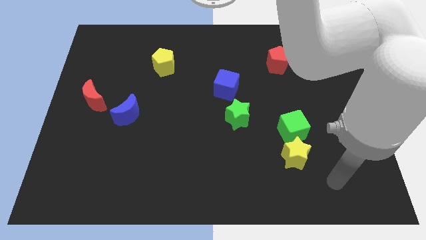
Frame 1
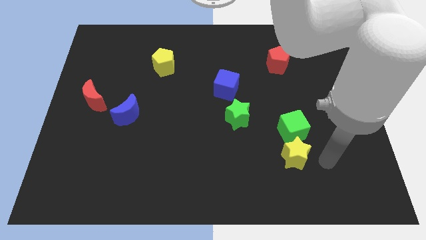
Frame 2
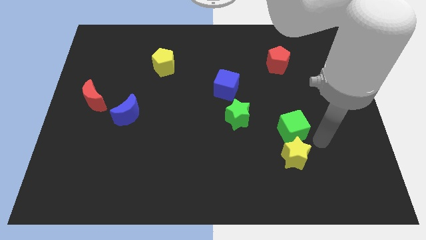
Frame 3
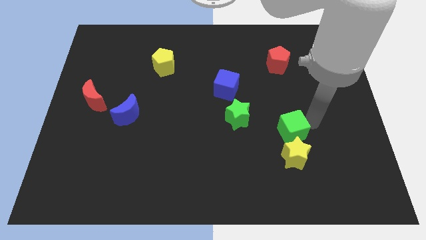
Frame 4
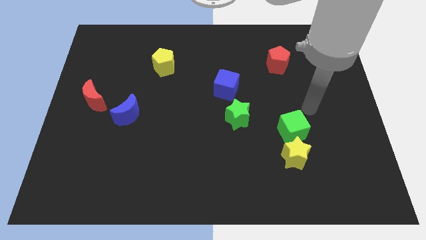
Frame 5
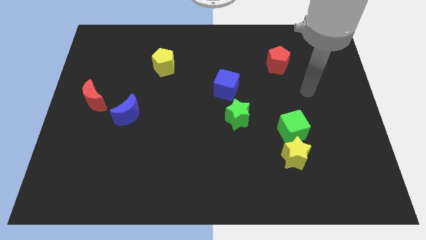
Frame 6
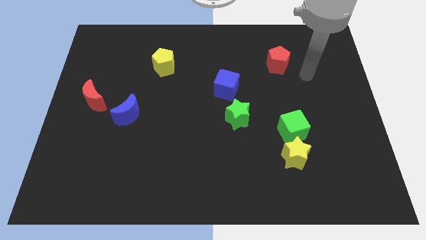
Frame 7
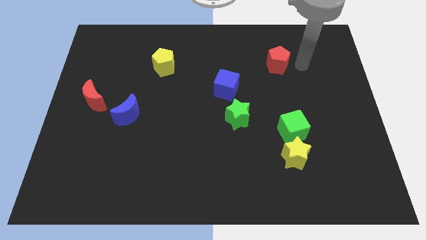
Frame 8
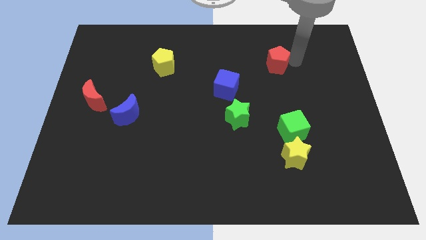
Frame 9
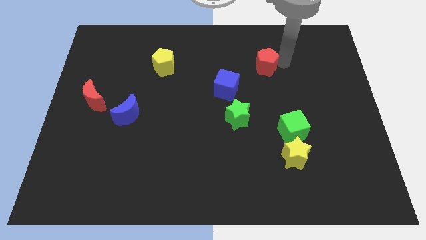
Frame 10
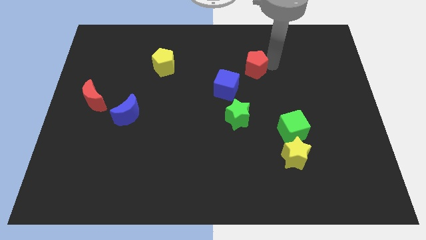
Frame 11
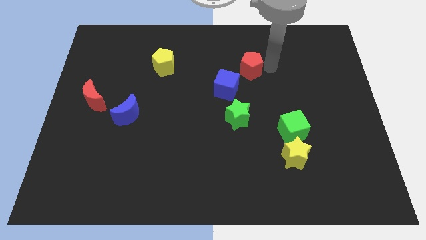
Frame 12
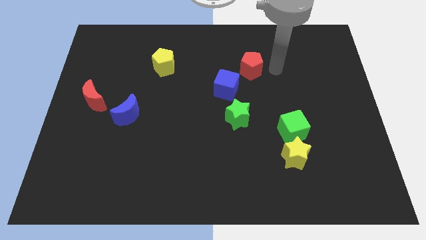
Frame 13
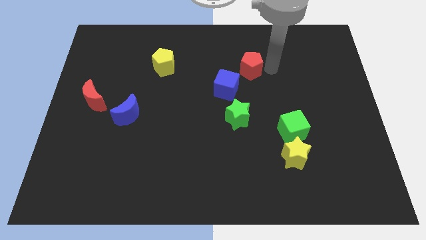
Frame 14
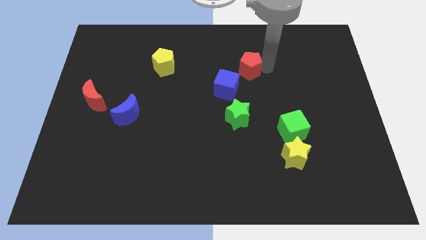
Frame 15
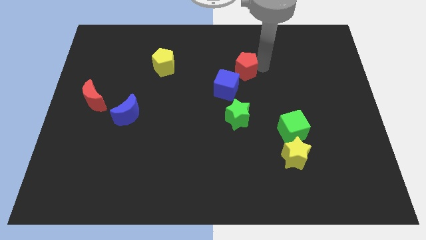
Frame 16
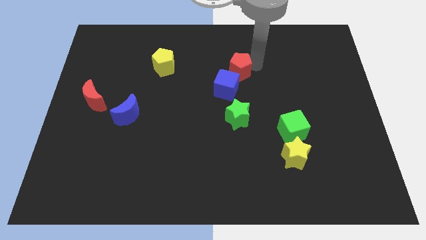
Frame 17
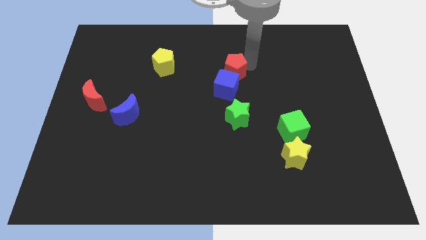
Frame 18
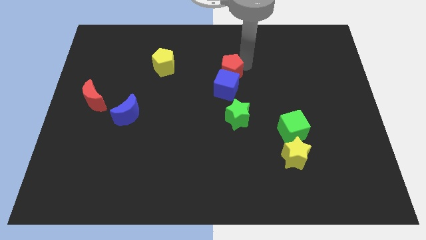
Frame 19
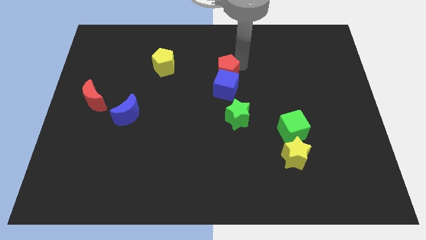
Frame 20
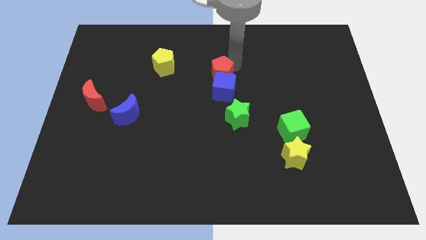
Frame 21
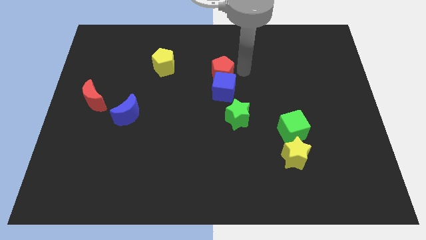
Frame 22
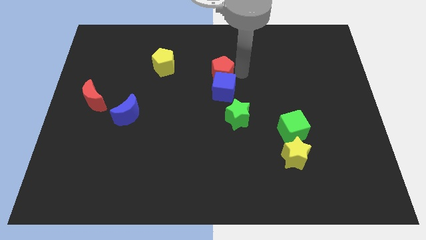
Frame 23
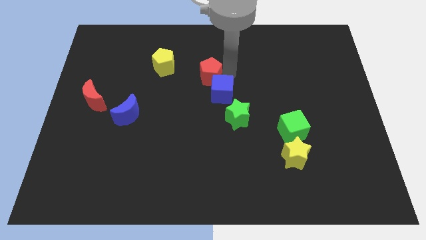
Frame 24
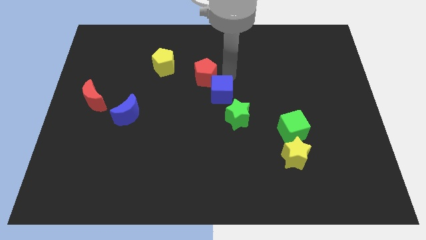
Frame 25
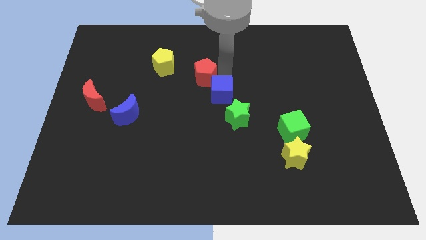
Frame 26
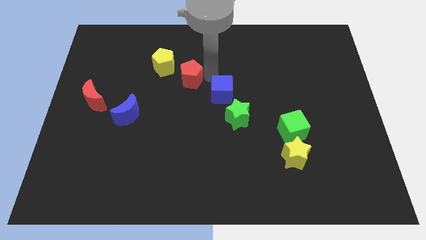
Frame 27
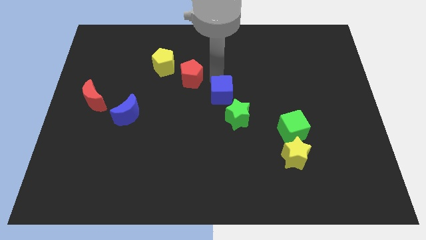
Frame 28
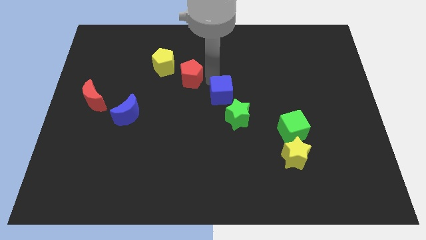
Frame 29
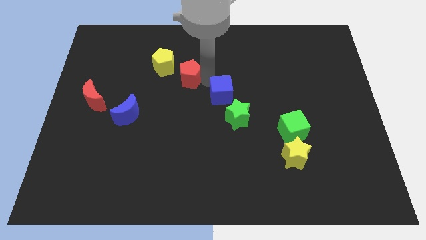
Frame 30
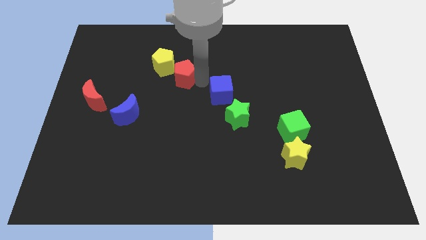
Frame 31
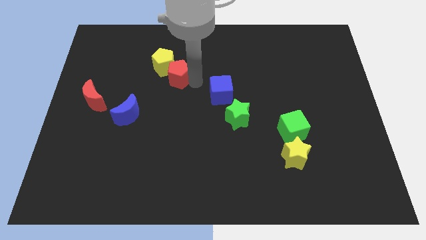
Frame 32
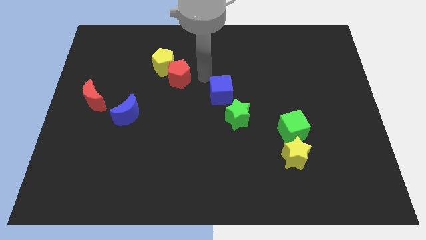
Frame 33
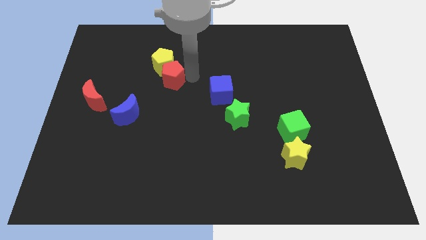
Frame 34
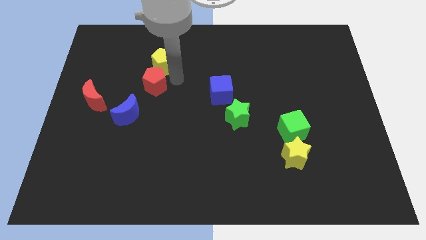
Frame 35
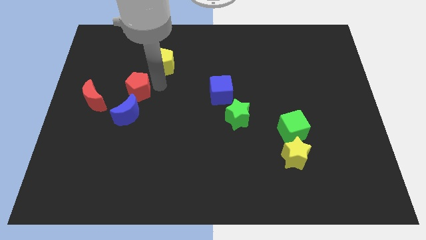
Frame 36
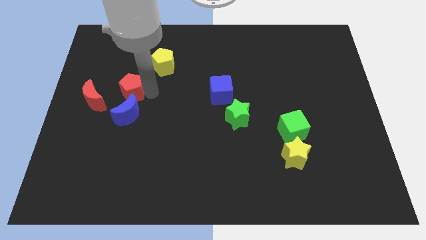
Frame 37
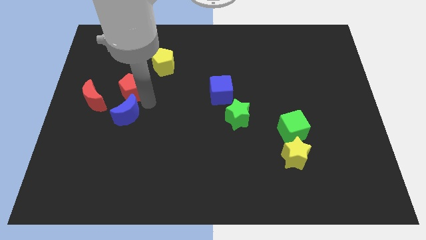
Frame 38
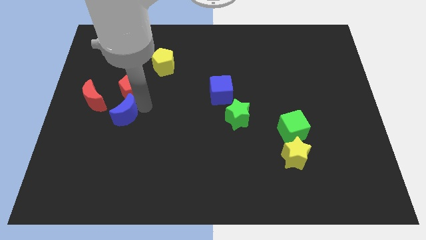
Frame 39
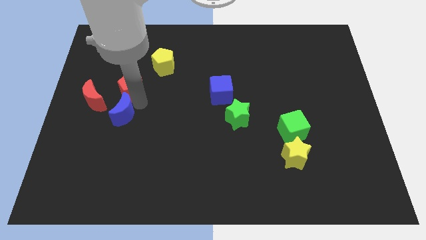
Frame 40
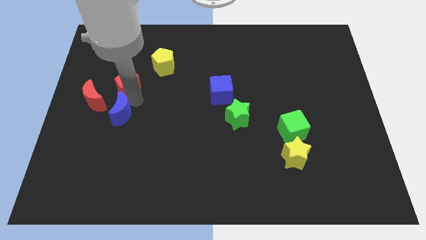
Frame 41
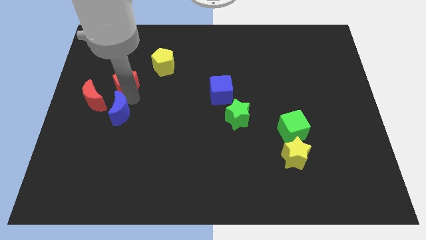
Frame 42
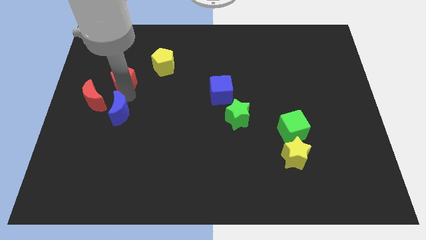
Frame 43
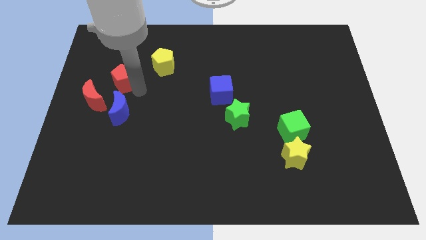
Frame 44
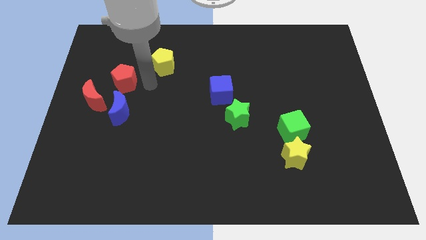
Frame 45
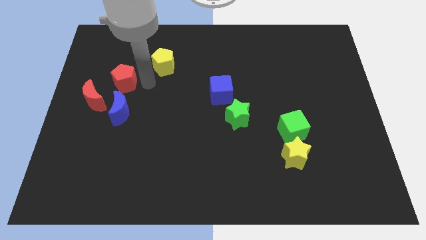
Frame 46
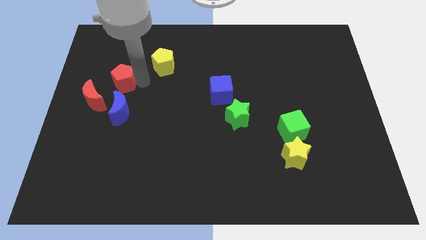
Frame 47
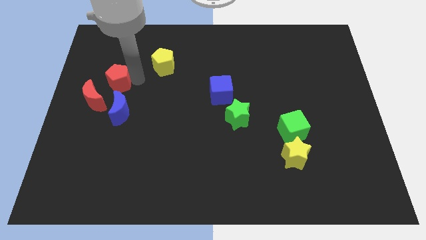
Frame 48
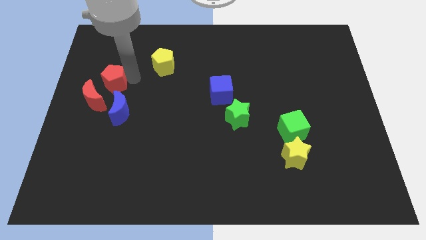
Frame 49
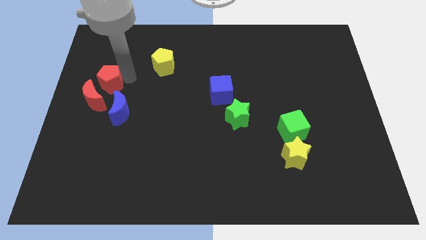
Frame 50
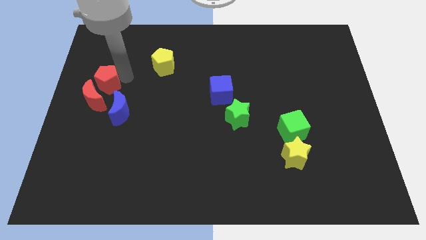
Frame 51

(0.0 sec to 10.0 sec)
put the red pentagon to the center left

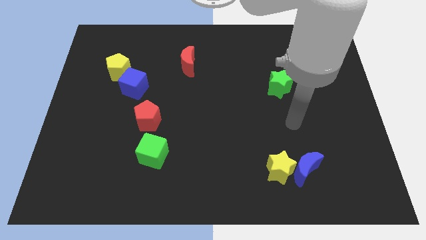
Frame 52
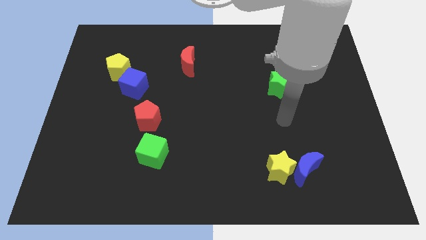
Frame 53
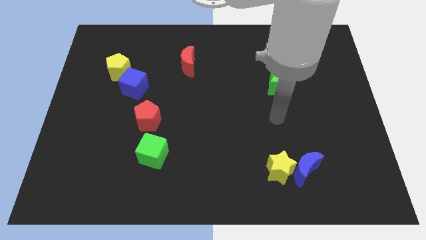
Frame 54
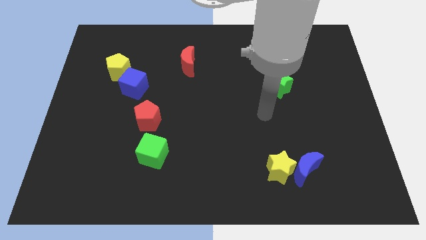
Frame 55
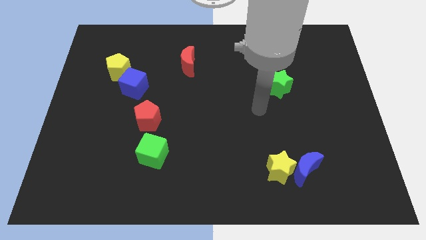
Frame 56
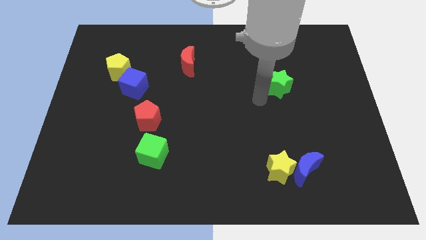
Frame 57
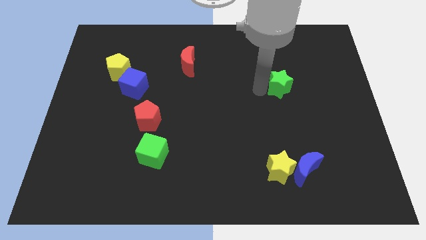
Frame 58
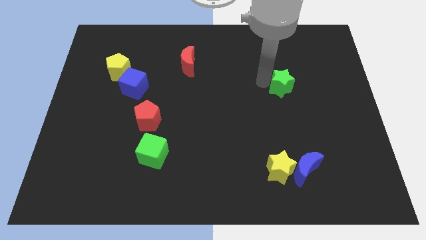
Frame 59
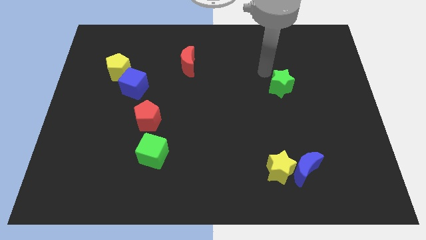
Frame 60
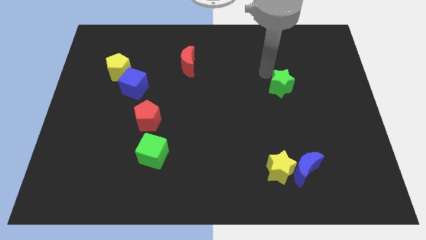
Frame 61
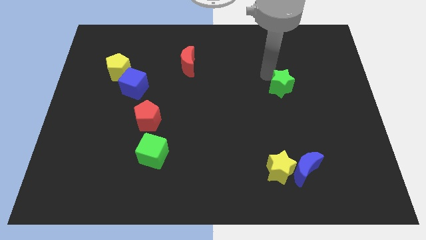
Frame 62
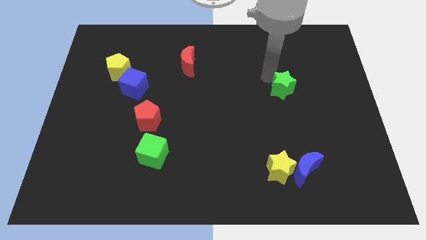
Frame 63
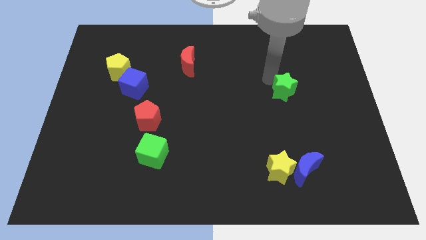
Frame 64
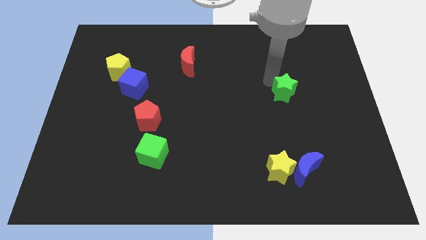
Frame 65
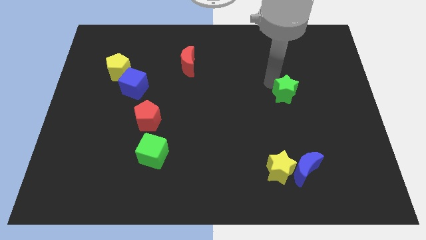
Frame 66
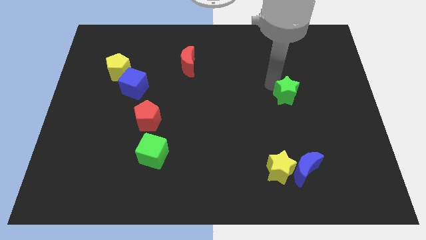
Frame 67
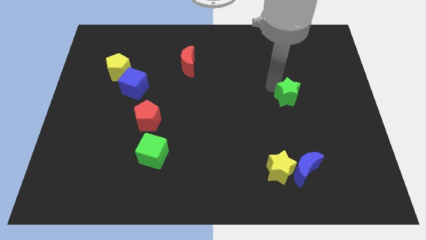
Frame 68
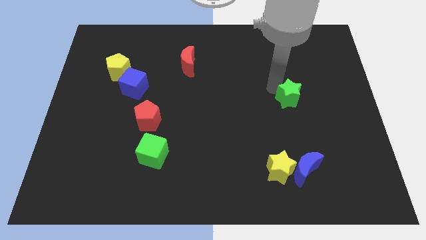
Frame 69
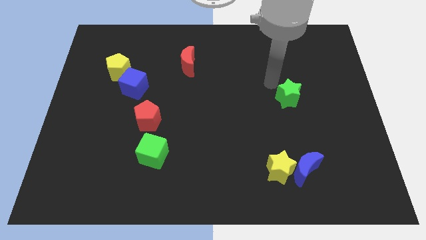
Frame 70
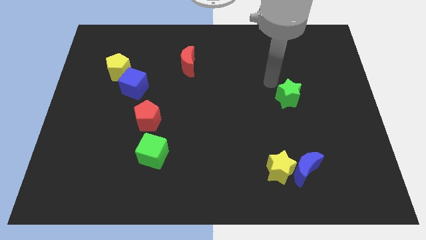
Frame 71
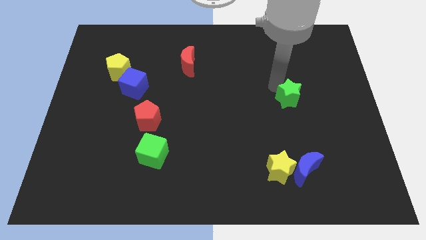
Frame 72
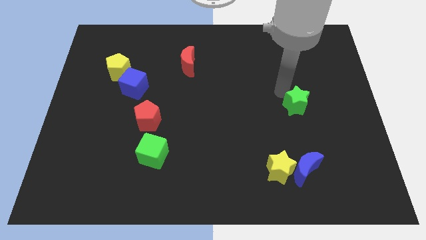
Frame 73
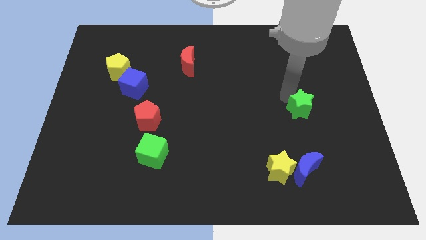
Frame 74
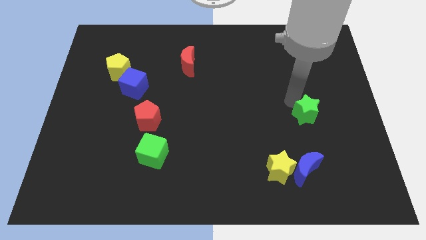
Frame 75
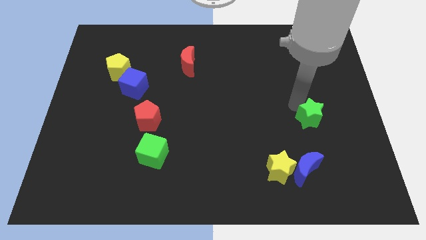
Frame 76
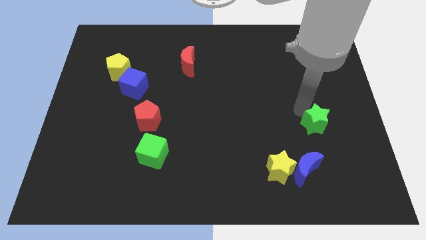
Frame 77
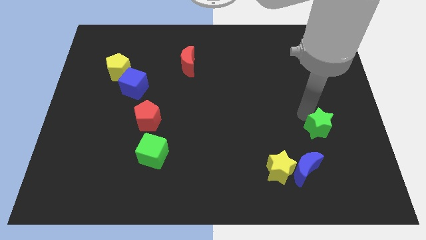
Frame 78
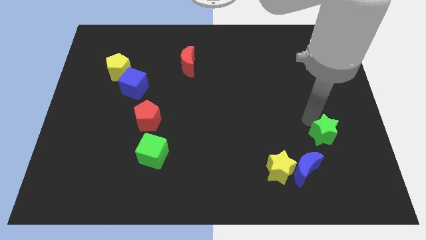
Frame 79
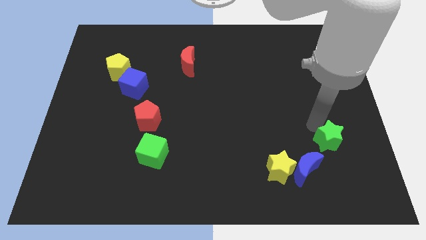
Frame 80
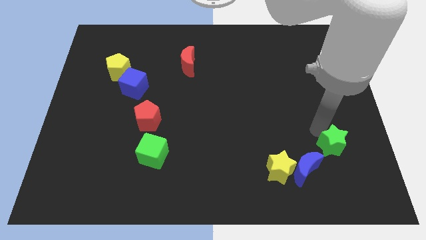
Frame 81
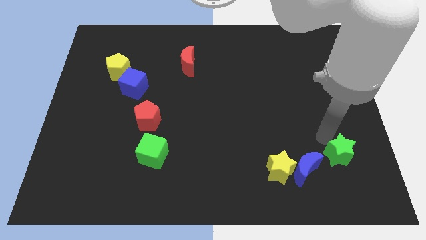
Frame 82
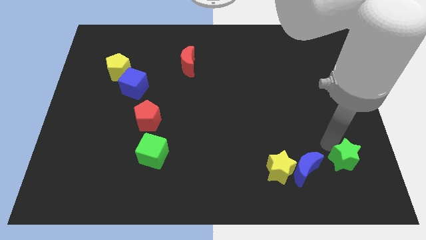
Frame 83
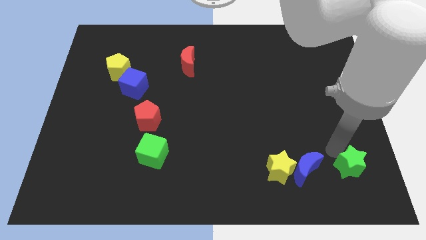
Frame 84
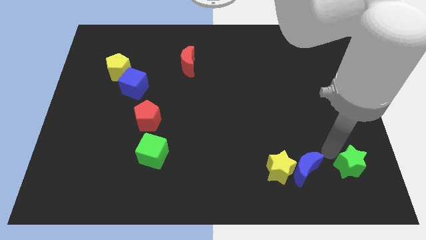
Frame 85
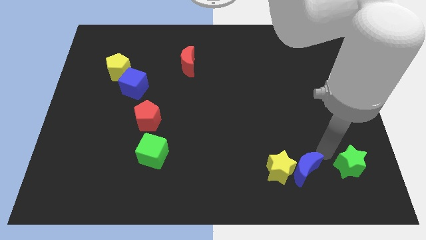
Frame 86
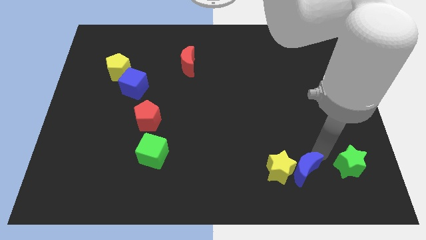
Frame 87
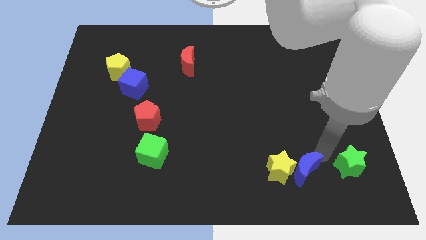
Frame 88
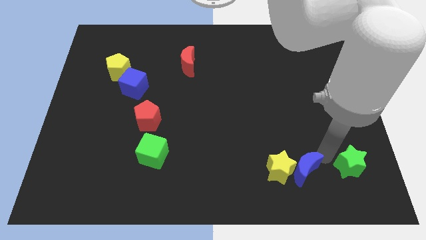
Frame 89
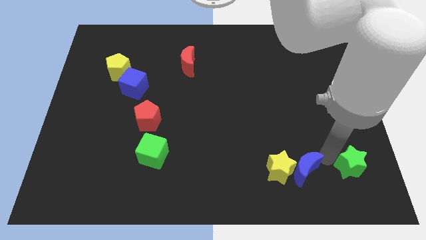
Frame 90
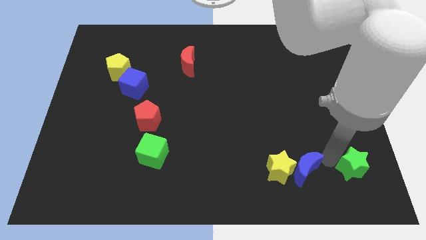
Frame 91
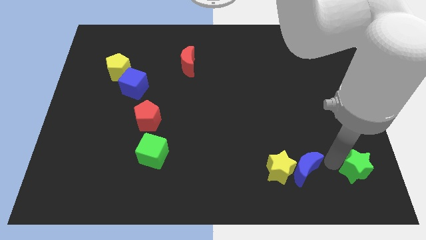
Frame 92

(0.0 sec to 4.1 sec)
move the green star to the bottom right corner
